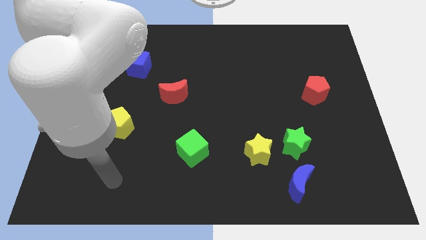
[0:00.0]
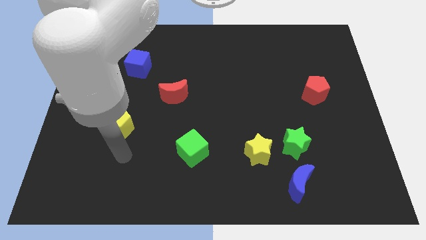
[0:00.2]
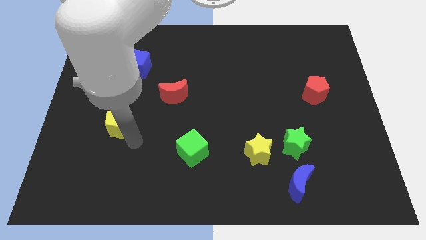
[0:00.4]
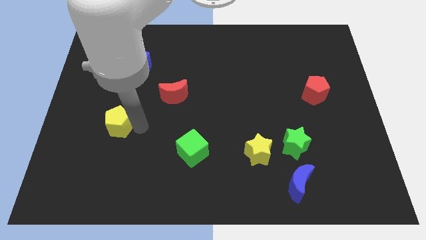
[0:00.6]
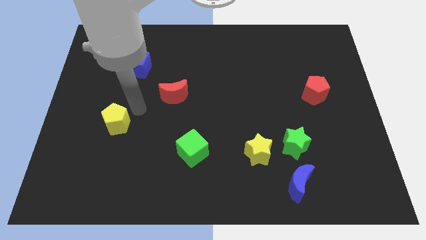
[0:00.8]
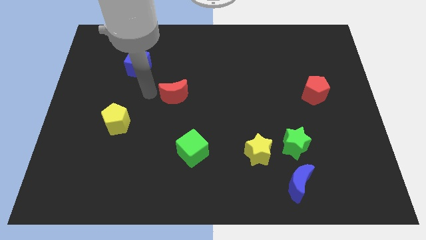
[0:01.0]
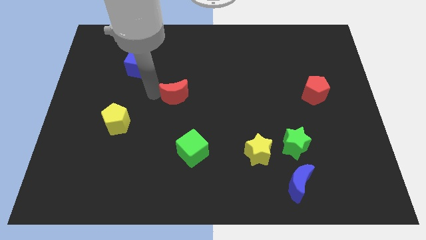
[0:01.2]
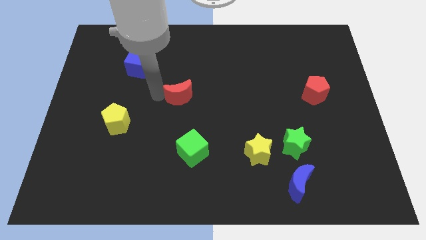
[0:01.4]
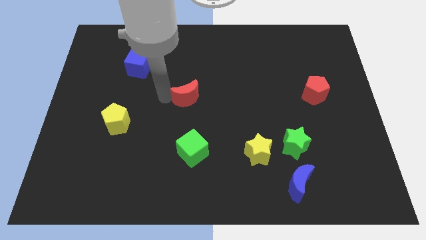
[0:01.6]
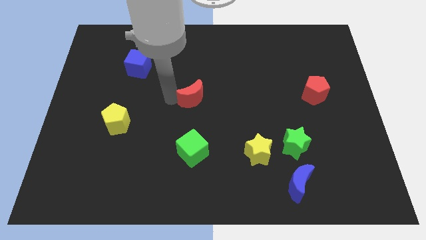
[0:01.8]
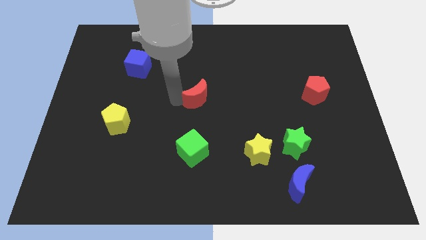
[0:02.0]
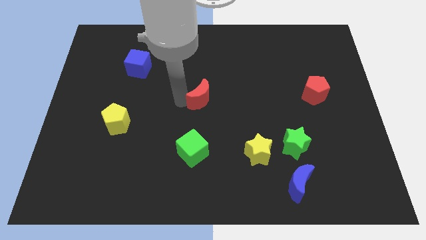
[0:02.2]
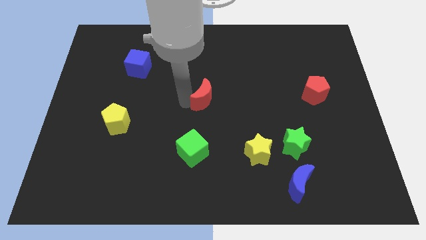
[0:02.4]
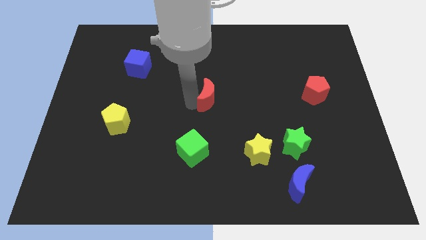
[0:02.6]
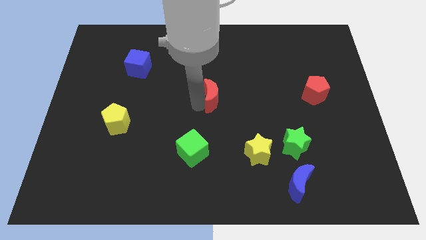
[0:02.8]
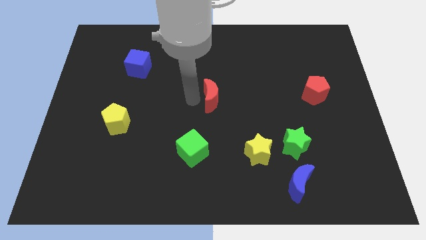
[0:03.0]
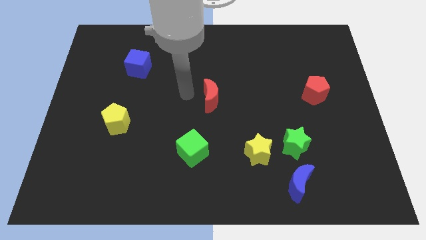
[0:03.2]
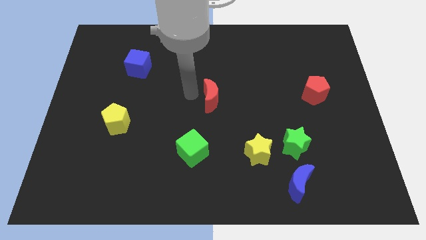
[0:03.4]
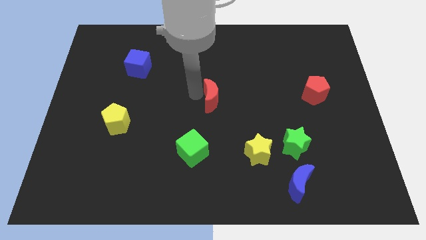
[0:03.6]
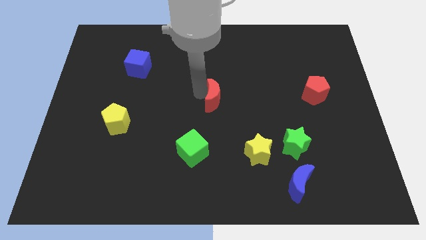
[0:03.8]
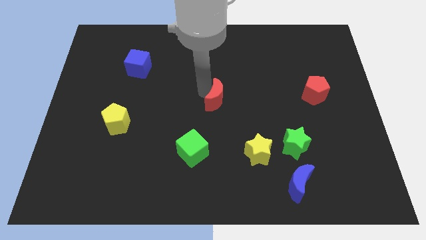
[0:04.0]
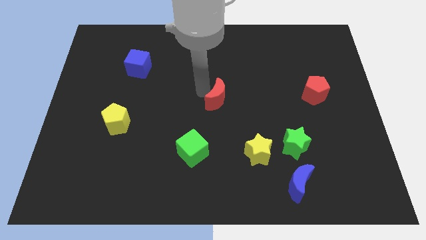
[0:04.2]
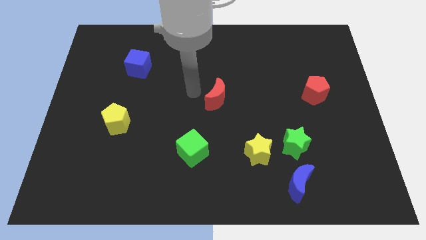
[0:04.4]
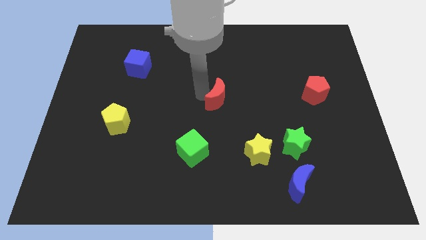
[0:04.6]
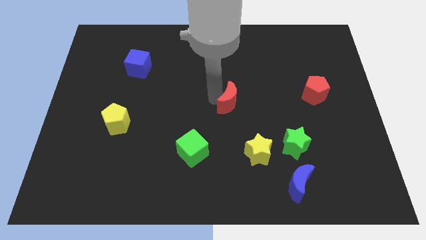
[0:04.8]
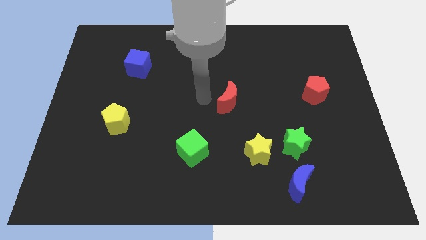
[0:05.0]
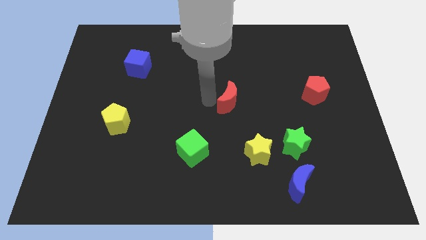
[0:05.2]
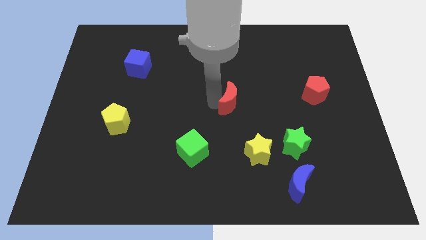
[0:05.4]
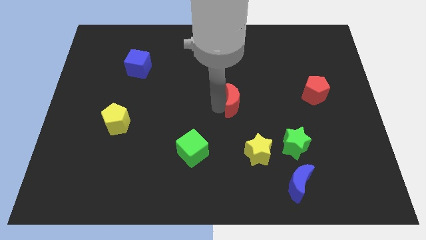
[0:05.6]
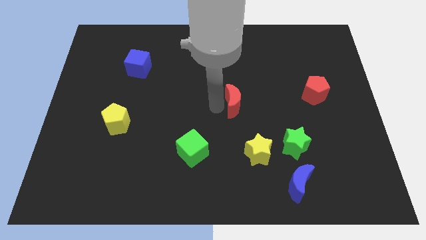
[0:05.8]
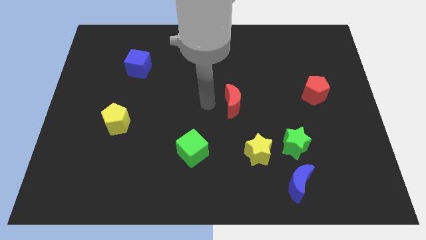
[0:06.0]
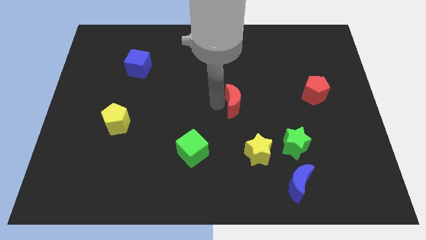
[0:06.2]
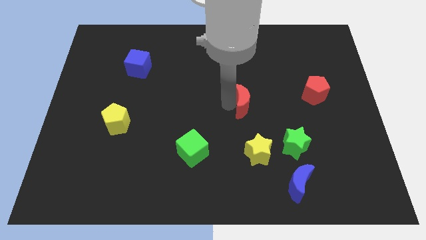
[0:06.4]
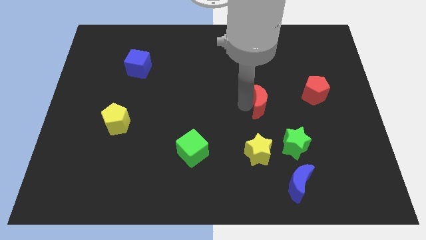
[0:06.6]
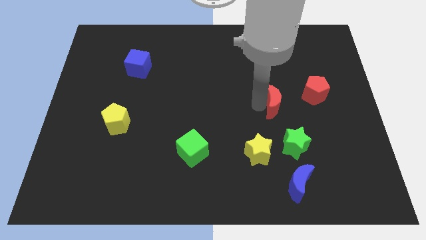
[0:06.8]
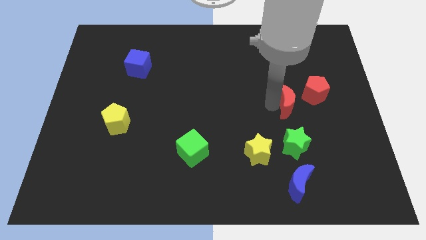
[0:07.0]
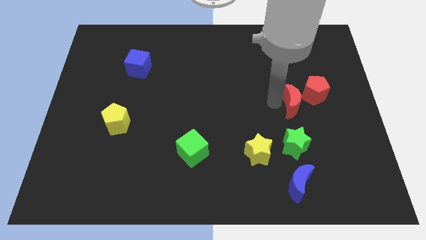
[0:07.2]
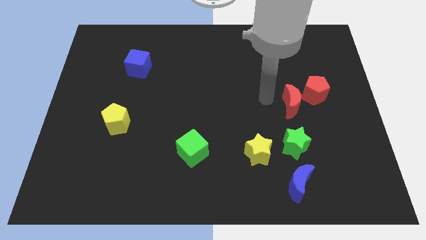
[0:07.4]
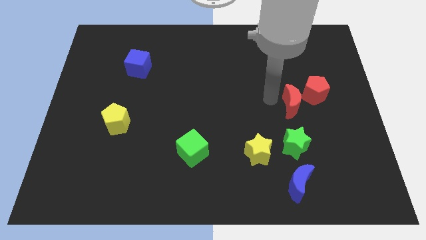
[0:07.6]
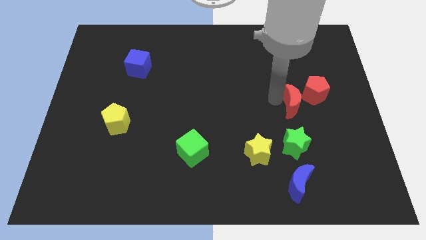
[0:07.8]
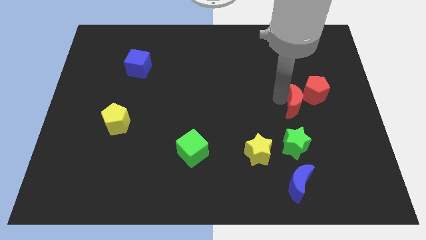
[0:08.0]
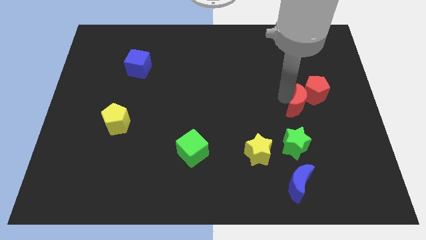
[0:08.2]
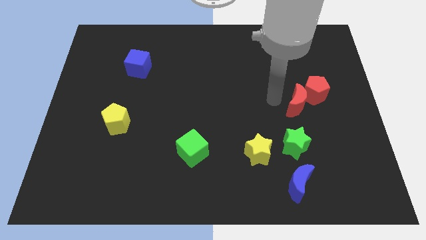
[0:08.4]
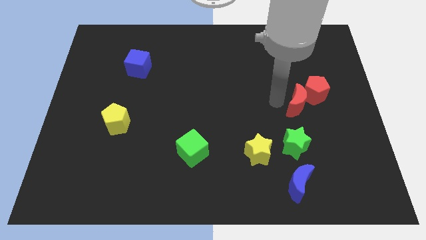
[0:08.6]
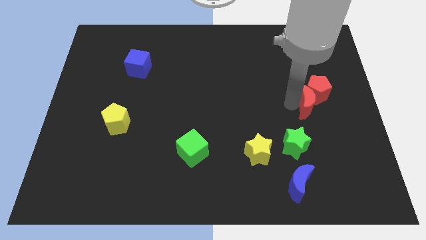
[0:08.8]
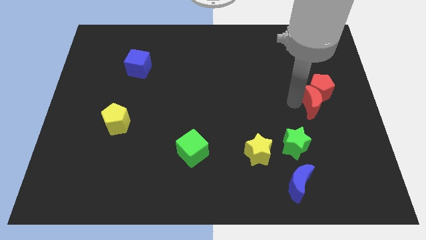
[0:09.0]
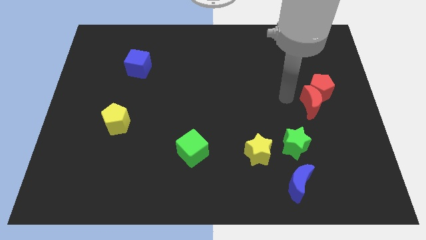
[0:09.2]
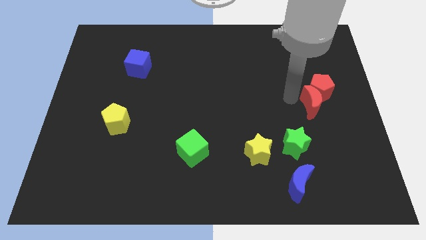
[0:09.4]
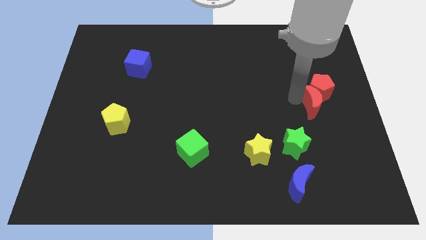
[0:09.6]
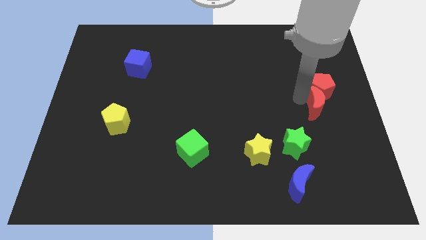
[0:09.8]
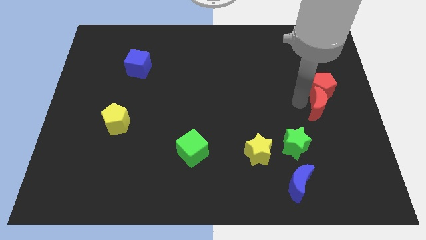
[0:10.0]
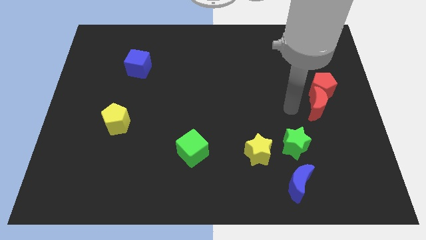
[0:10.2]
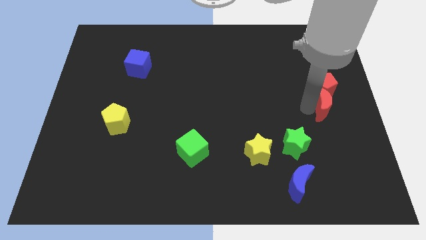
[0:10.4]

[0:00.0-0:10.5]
push the red moon to the right side

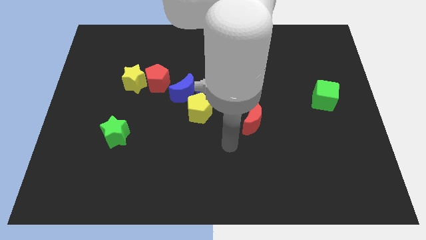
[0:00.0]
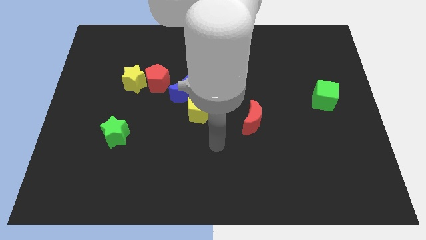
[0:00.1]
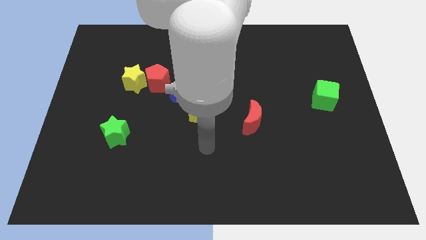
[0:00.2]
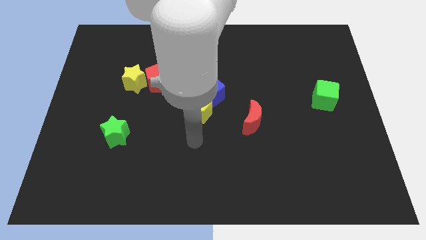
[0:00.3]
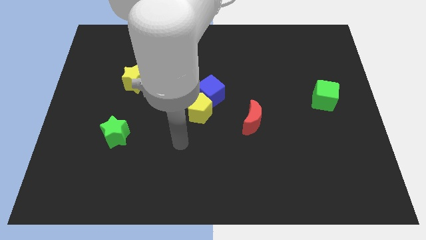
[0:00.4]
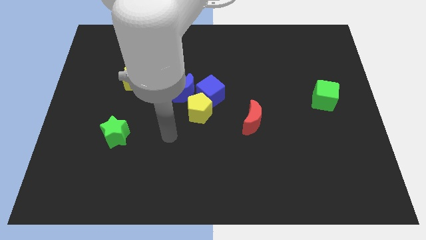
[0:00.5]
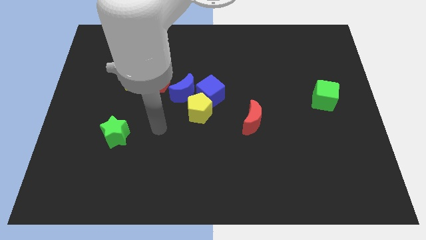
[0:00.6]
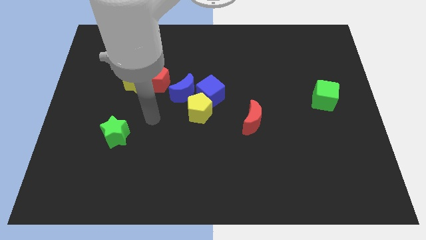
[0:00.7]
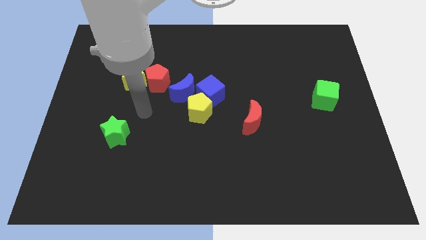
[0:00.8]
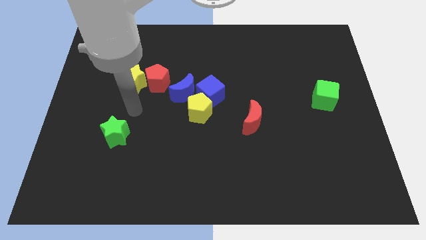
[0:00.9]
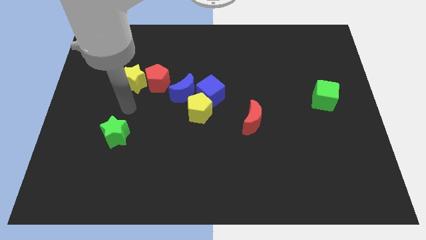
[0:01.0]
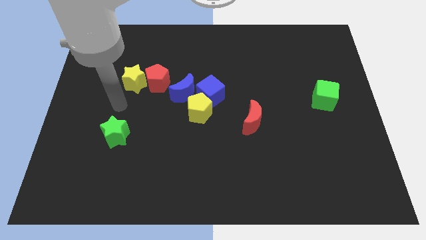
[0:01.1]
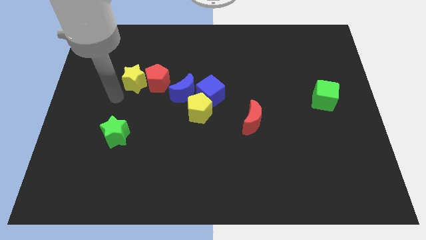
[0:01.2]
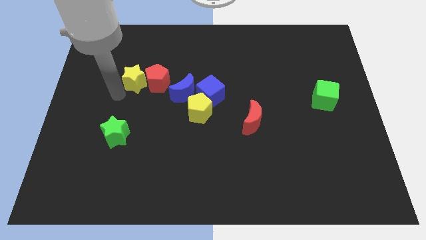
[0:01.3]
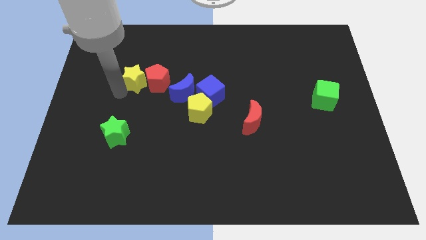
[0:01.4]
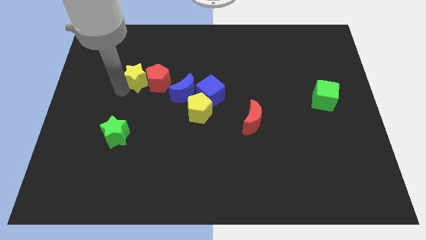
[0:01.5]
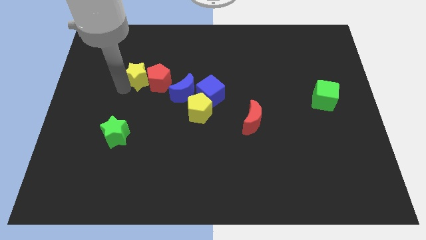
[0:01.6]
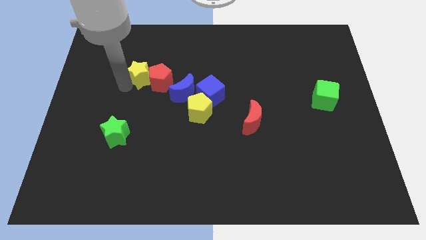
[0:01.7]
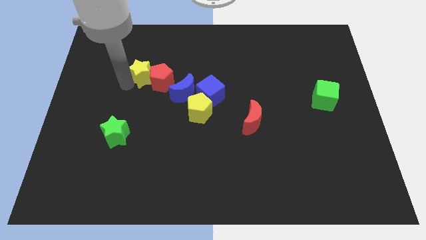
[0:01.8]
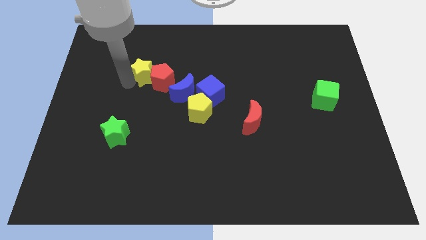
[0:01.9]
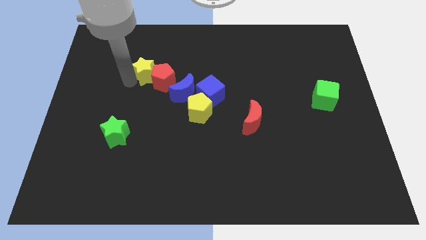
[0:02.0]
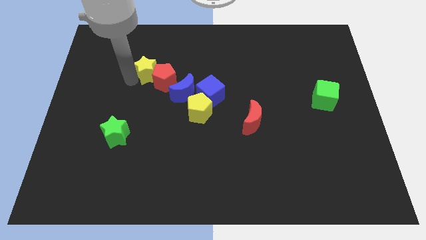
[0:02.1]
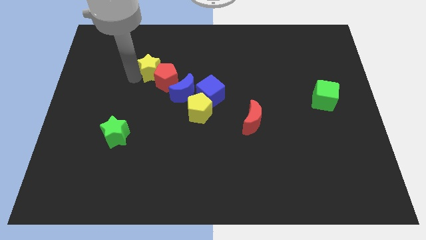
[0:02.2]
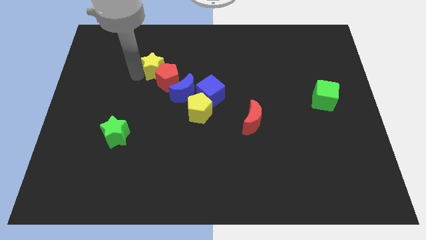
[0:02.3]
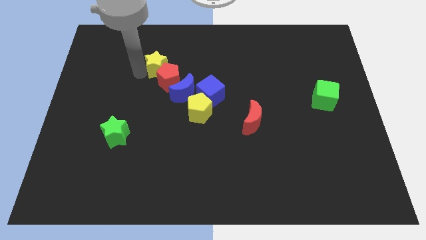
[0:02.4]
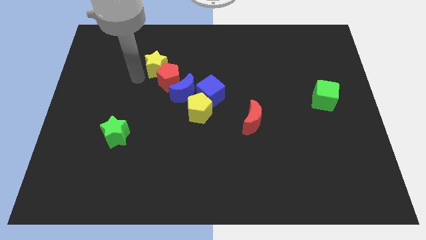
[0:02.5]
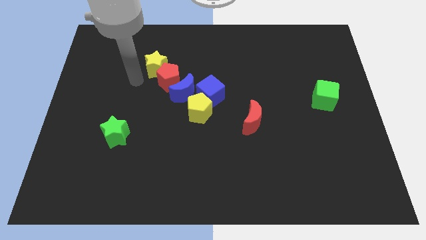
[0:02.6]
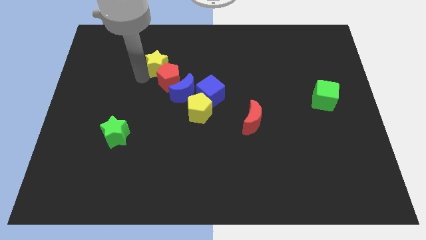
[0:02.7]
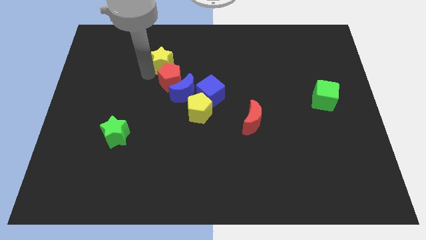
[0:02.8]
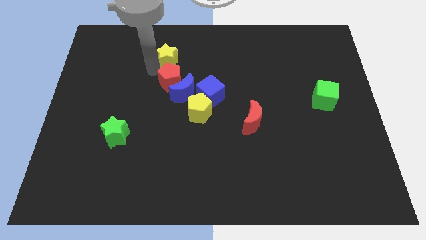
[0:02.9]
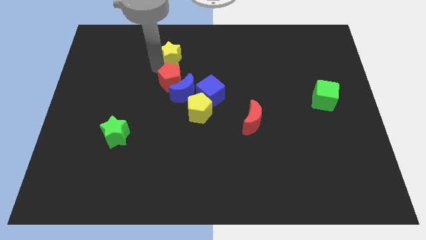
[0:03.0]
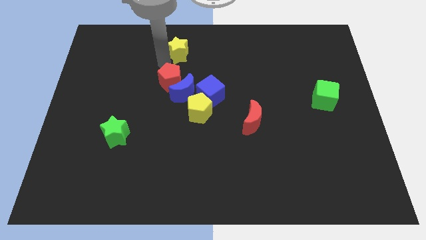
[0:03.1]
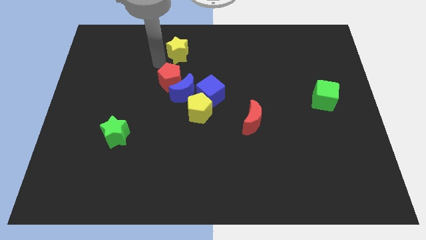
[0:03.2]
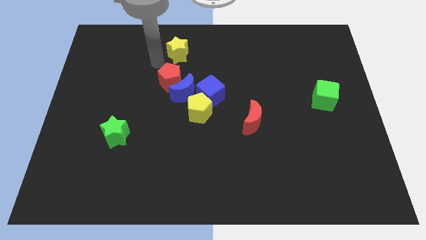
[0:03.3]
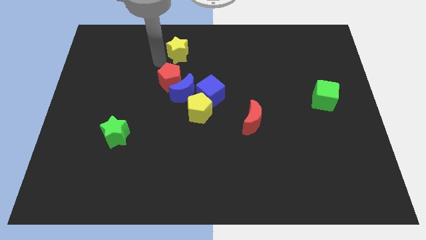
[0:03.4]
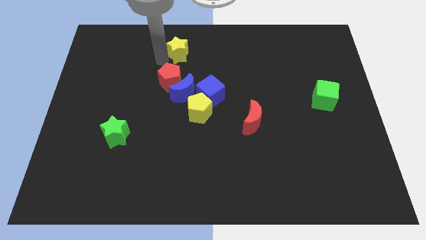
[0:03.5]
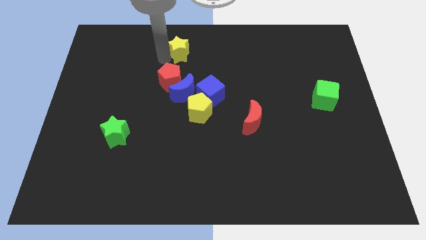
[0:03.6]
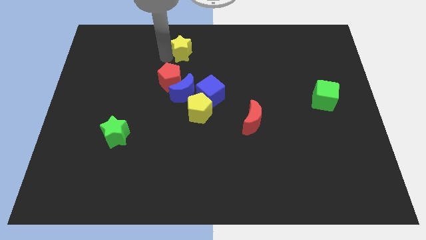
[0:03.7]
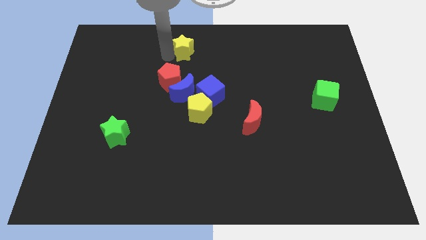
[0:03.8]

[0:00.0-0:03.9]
move the yellow star to the top side
